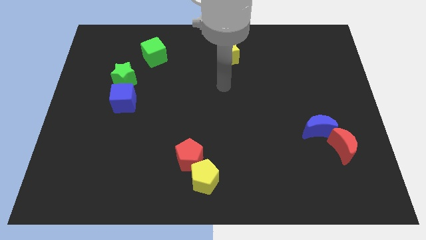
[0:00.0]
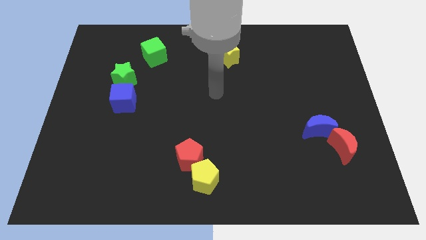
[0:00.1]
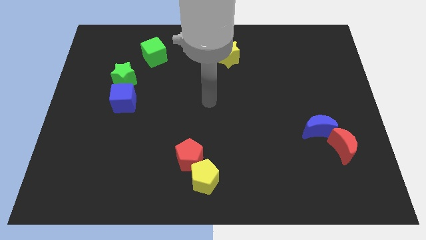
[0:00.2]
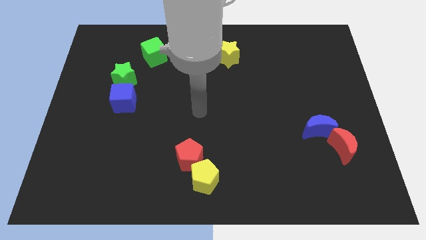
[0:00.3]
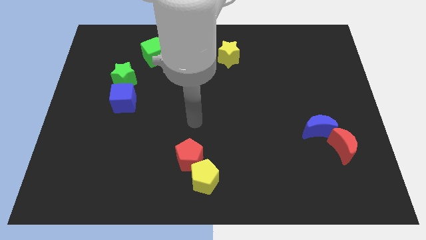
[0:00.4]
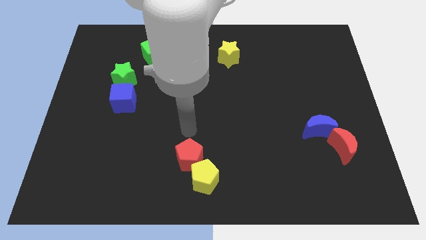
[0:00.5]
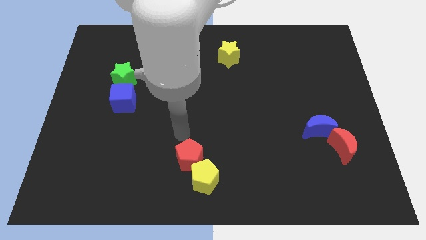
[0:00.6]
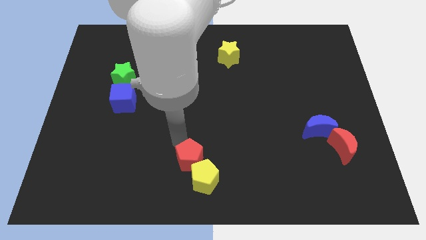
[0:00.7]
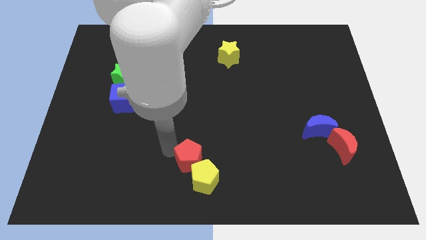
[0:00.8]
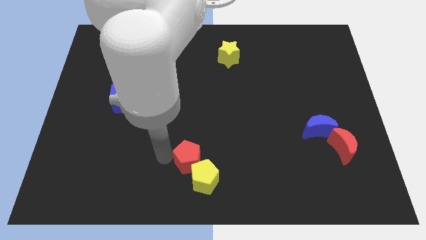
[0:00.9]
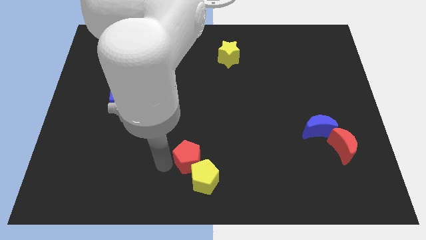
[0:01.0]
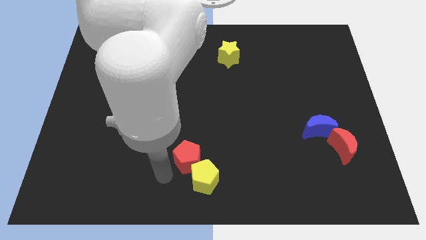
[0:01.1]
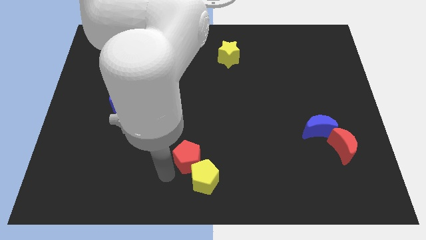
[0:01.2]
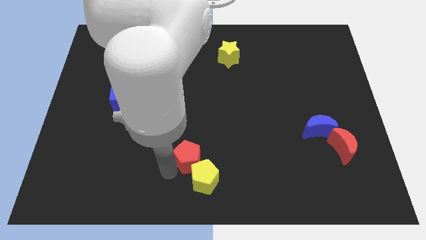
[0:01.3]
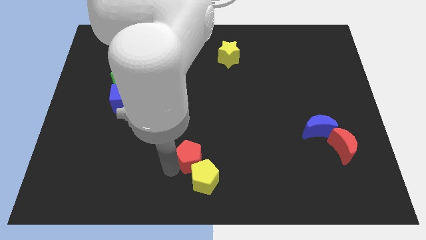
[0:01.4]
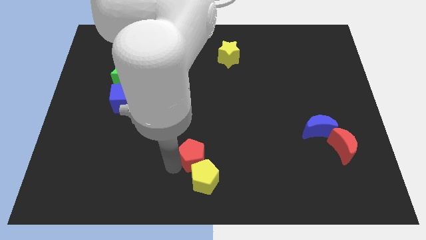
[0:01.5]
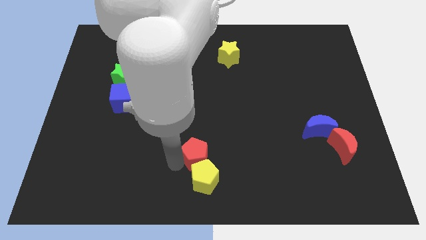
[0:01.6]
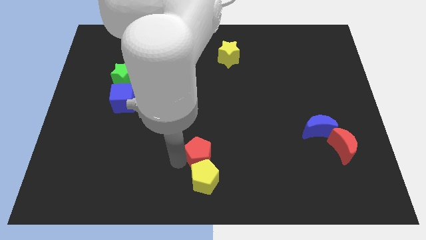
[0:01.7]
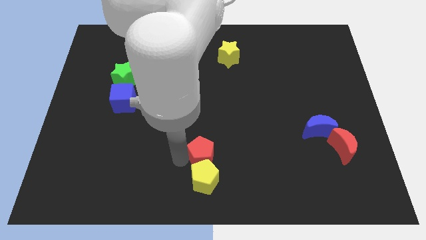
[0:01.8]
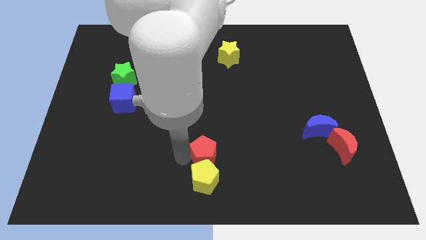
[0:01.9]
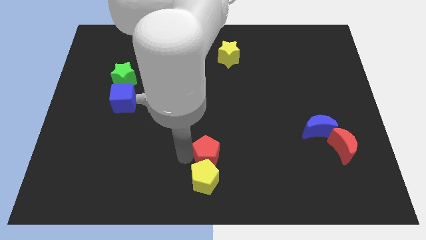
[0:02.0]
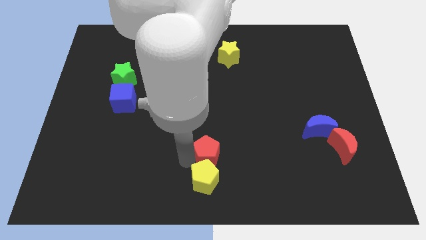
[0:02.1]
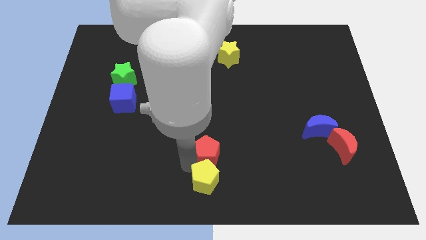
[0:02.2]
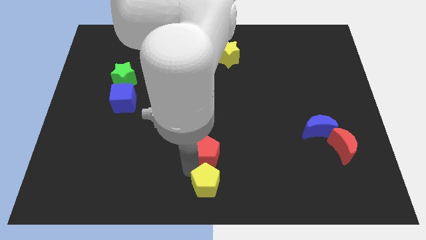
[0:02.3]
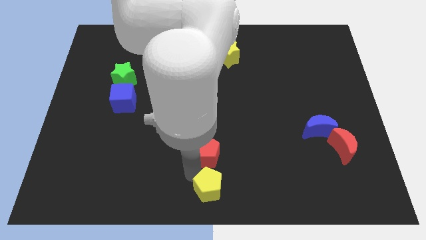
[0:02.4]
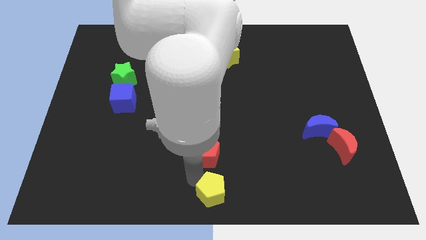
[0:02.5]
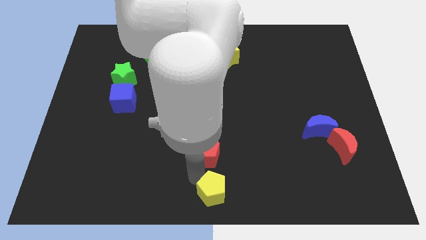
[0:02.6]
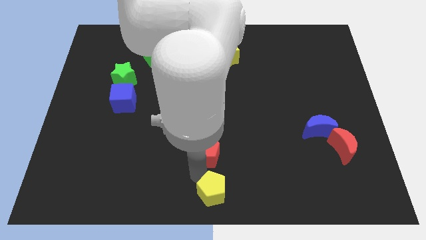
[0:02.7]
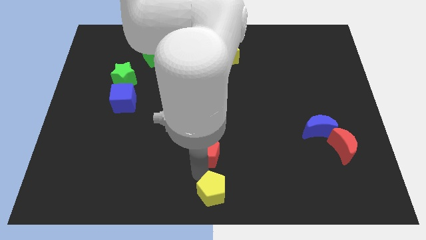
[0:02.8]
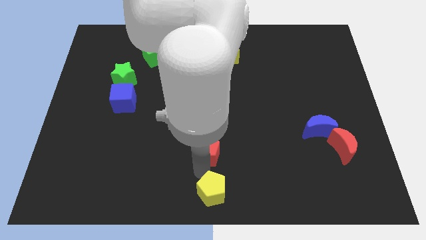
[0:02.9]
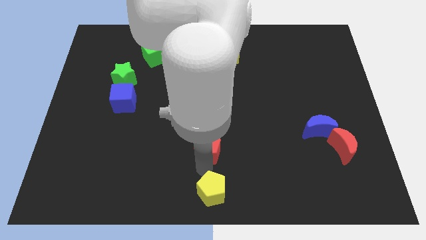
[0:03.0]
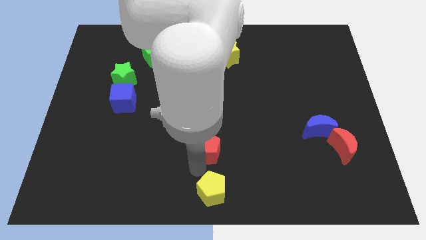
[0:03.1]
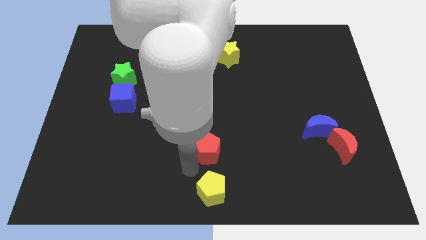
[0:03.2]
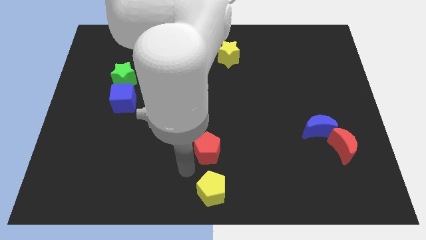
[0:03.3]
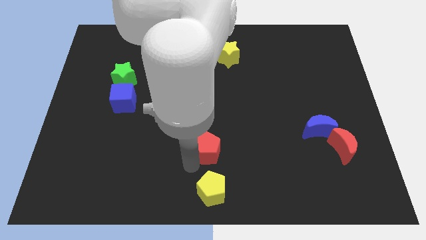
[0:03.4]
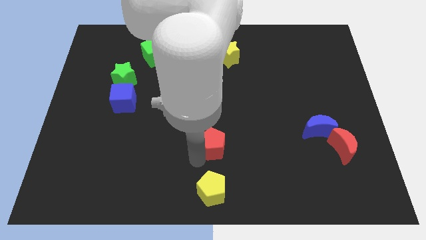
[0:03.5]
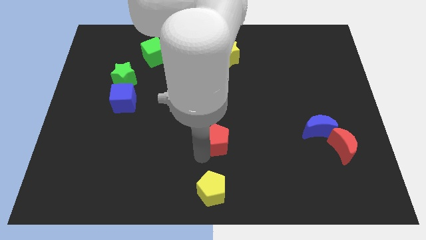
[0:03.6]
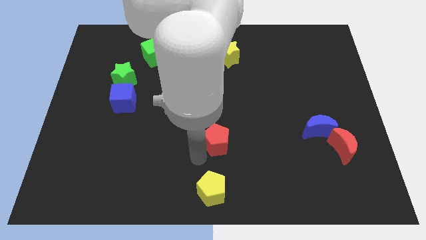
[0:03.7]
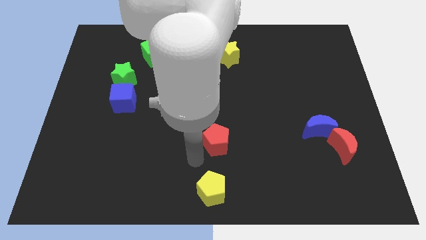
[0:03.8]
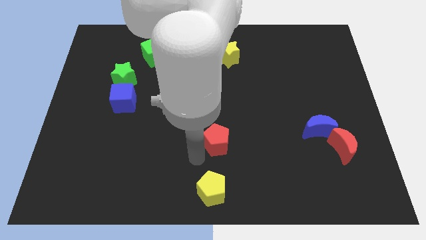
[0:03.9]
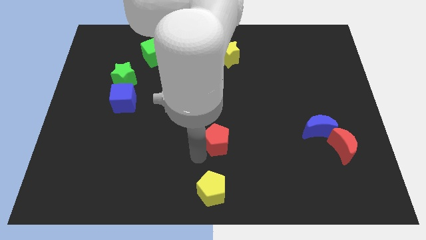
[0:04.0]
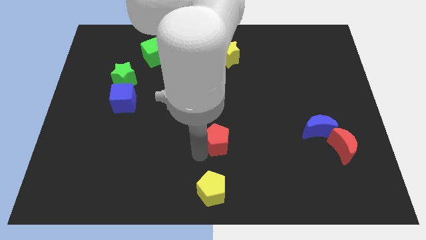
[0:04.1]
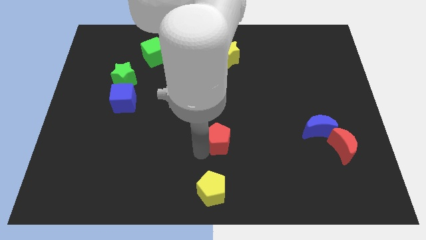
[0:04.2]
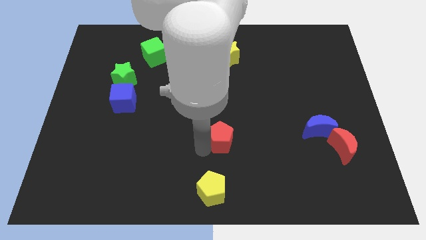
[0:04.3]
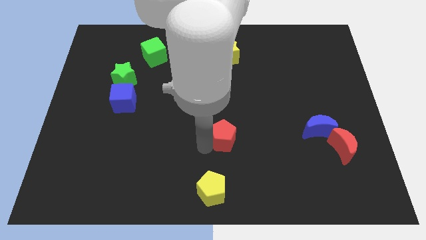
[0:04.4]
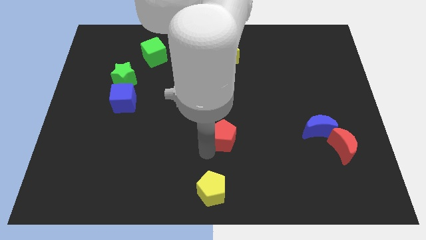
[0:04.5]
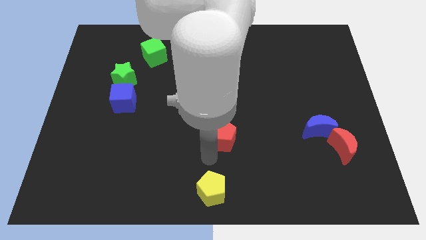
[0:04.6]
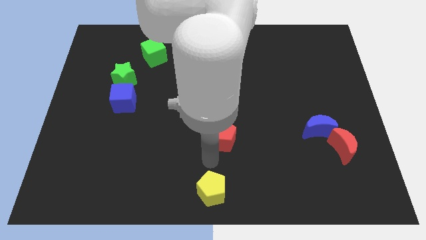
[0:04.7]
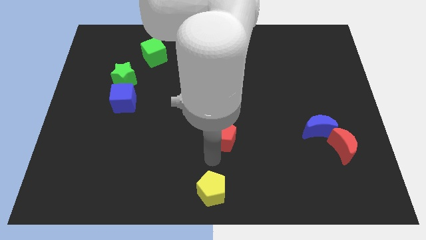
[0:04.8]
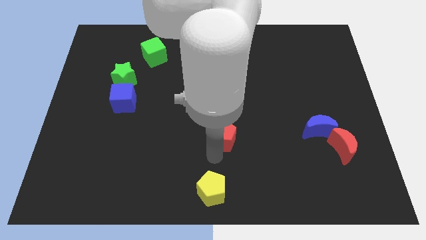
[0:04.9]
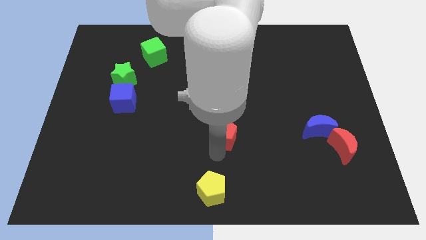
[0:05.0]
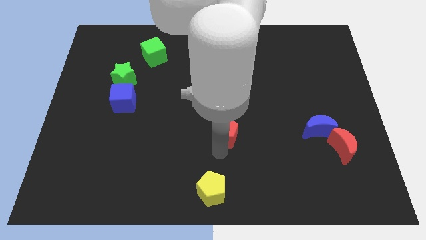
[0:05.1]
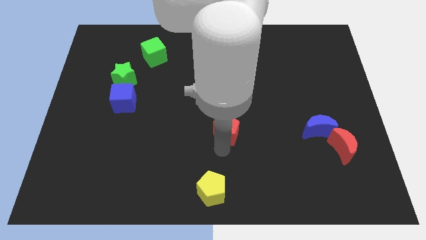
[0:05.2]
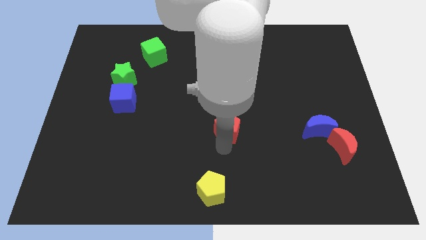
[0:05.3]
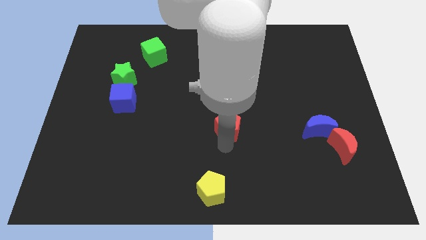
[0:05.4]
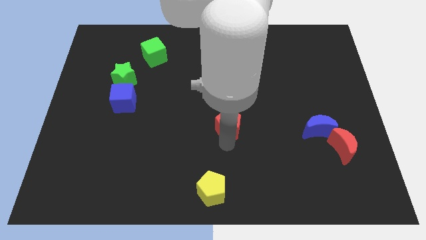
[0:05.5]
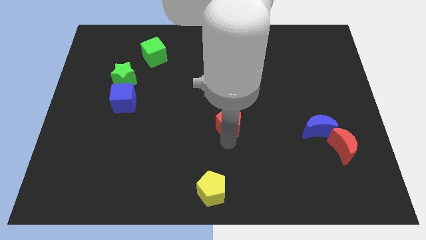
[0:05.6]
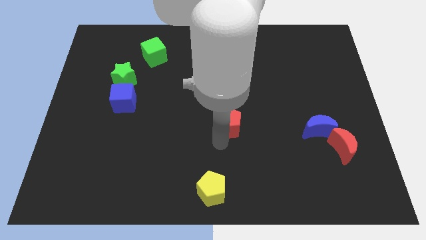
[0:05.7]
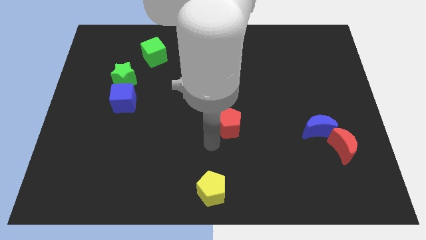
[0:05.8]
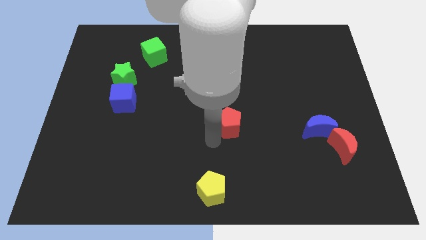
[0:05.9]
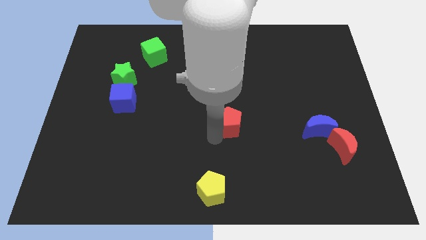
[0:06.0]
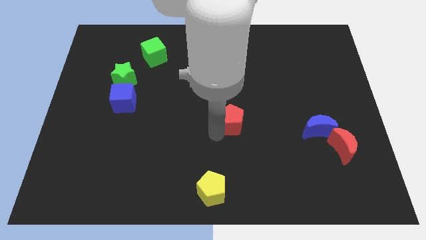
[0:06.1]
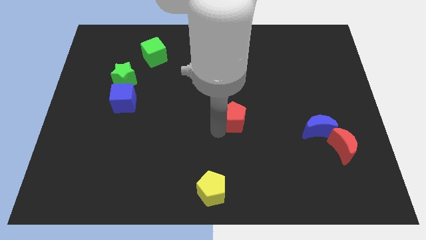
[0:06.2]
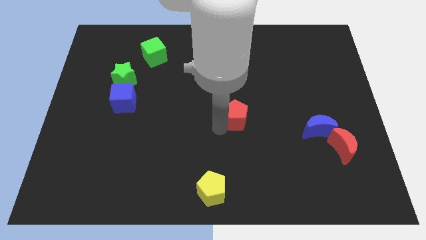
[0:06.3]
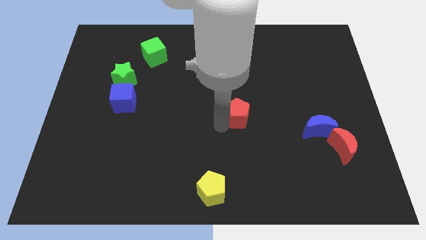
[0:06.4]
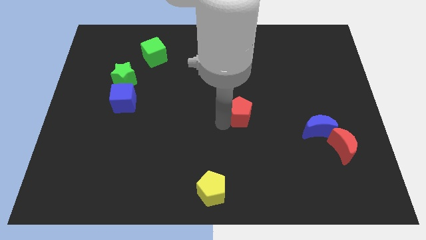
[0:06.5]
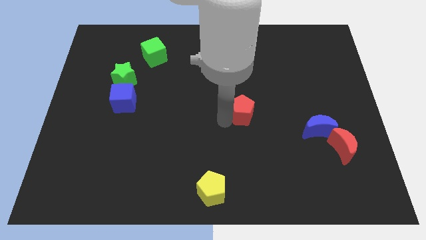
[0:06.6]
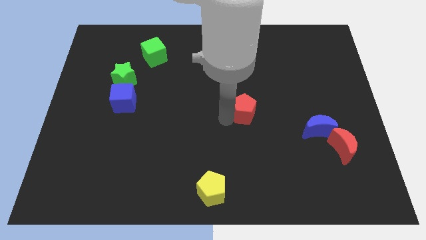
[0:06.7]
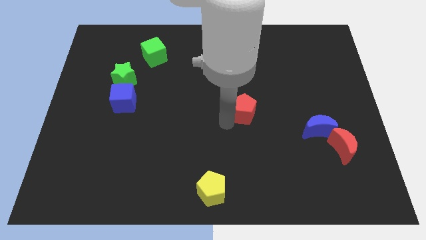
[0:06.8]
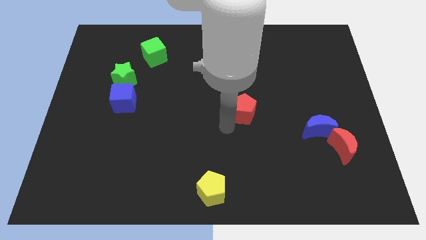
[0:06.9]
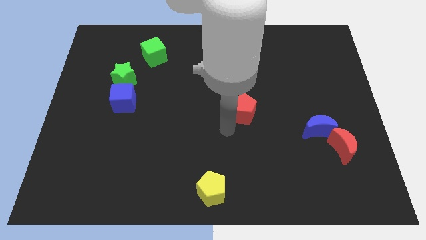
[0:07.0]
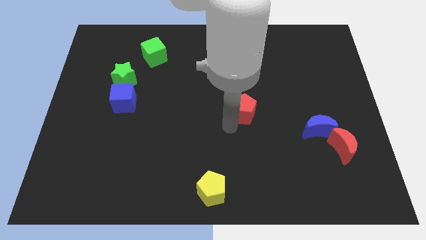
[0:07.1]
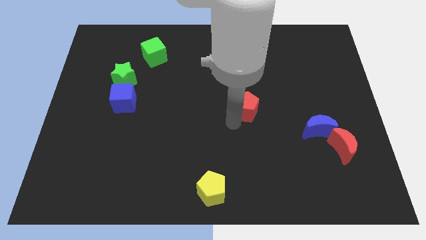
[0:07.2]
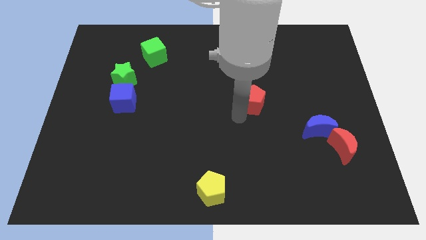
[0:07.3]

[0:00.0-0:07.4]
move the red pentagon upwards and then to the right

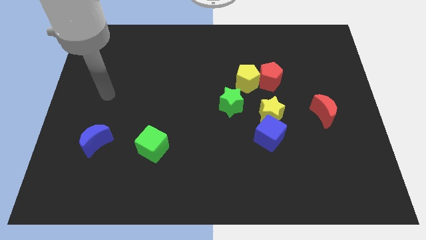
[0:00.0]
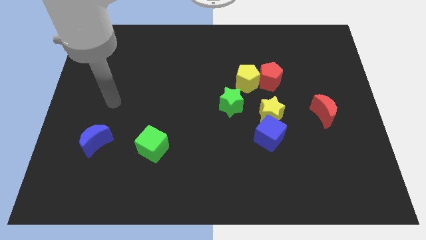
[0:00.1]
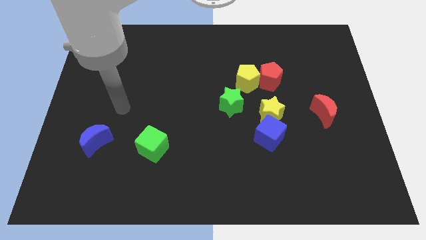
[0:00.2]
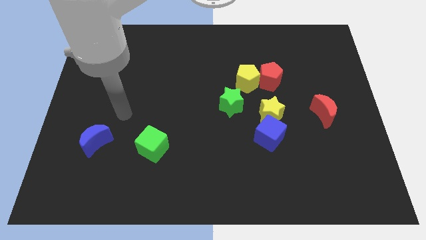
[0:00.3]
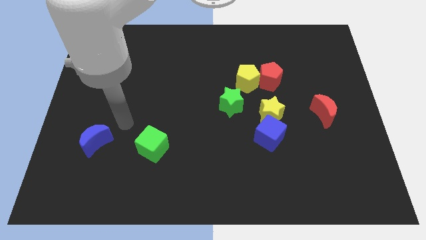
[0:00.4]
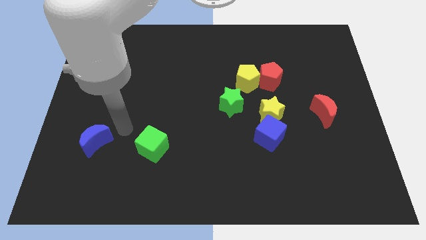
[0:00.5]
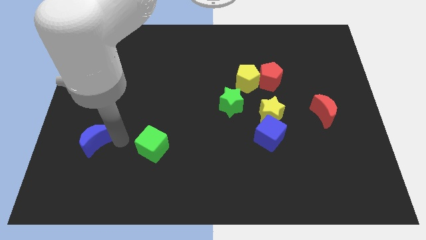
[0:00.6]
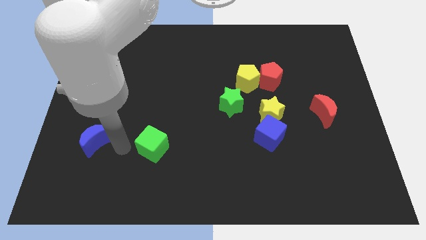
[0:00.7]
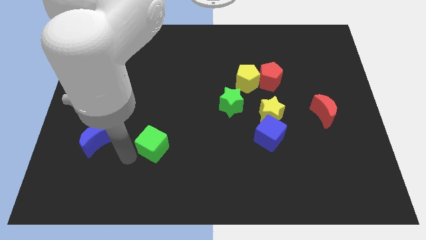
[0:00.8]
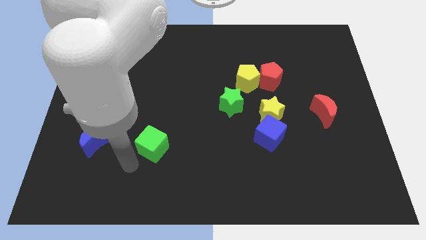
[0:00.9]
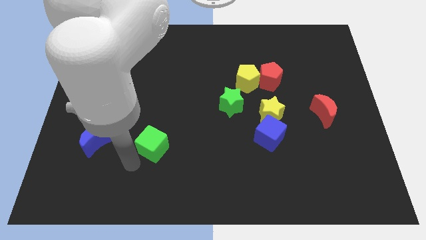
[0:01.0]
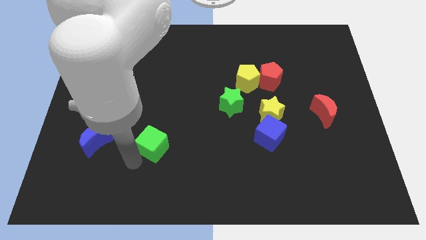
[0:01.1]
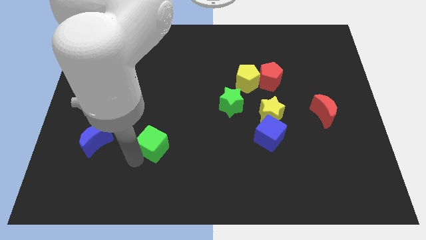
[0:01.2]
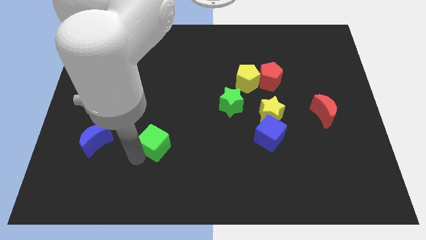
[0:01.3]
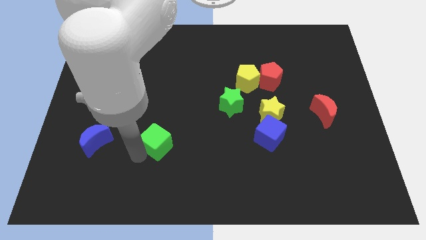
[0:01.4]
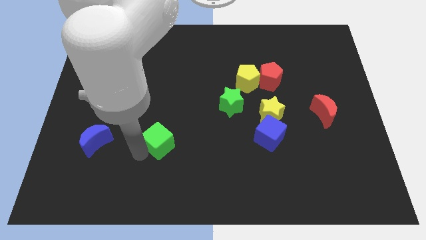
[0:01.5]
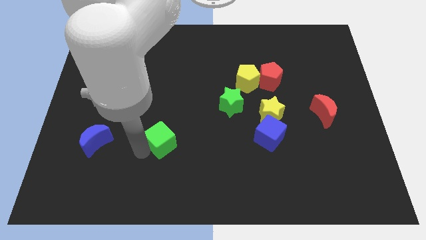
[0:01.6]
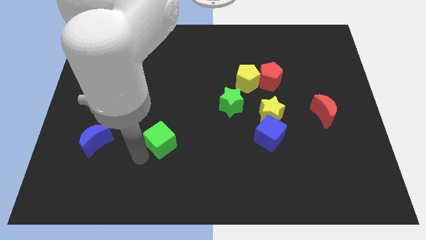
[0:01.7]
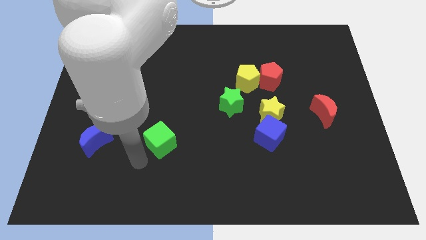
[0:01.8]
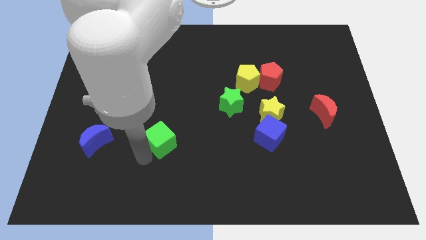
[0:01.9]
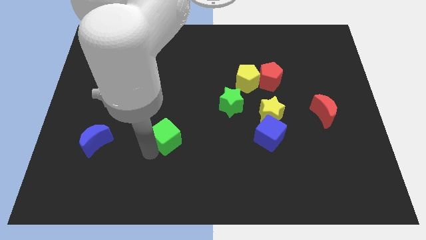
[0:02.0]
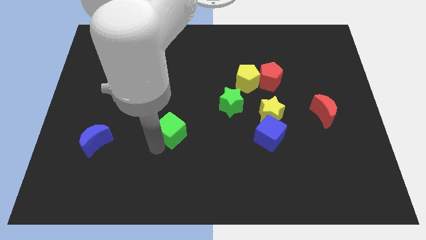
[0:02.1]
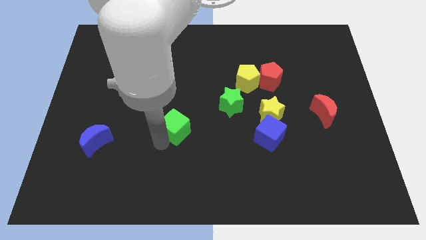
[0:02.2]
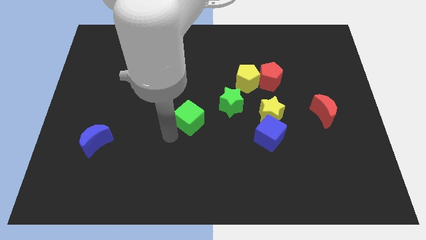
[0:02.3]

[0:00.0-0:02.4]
slightly push the green cube diagonally upwards and right
